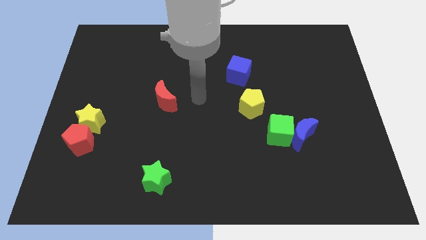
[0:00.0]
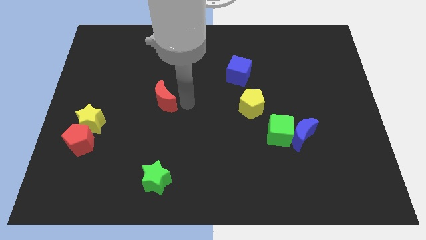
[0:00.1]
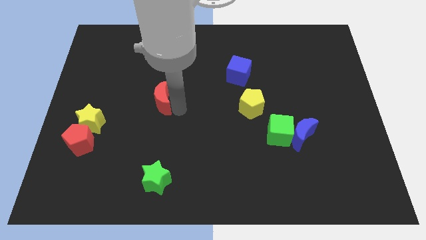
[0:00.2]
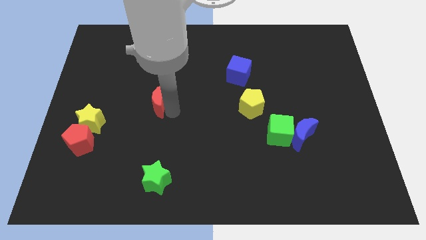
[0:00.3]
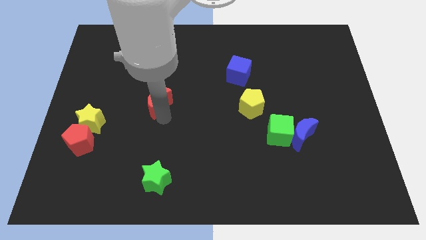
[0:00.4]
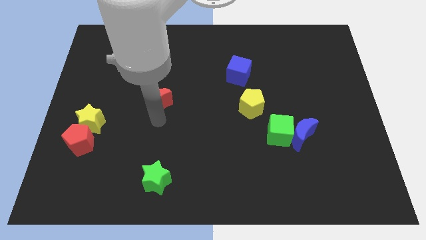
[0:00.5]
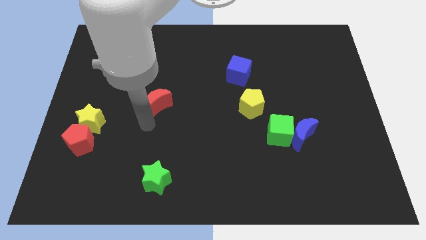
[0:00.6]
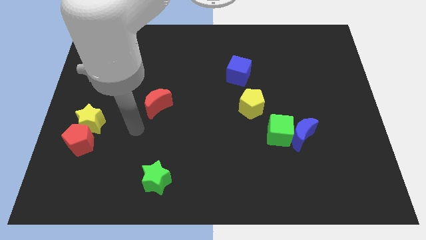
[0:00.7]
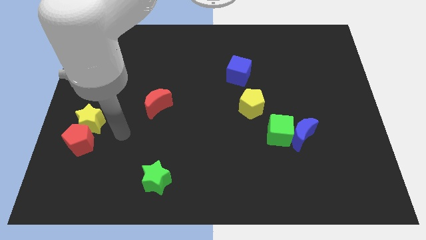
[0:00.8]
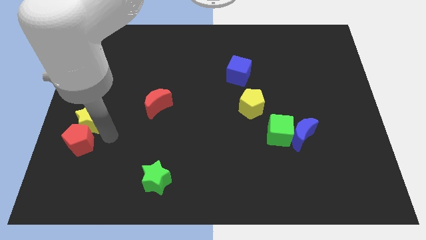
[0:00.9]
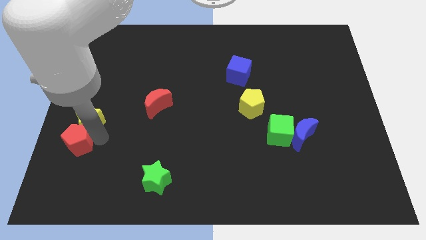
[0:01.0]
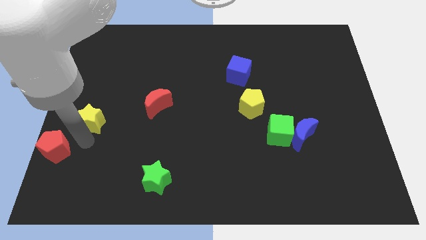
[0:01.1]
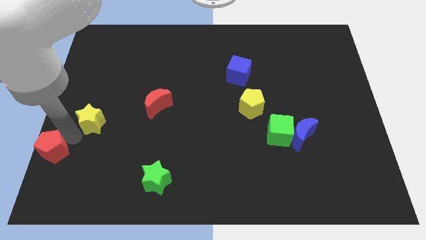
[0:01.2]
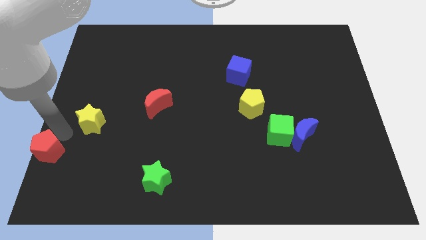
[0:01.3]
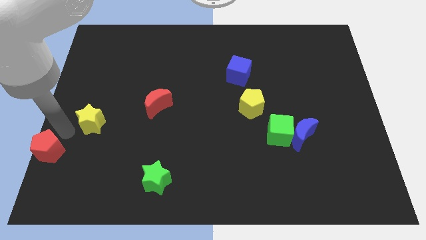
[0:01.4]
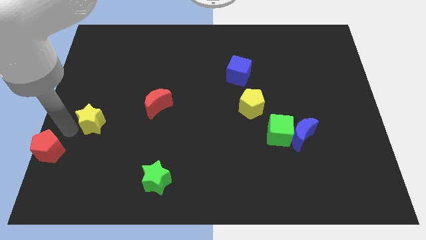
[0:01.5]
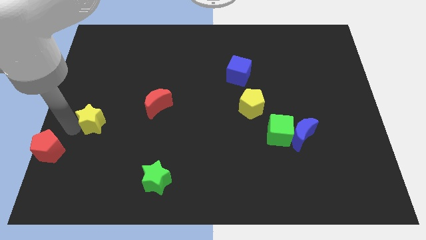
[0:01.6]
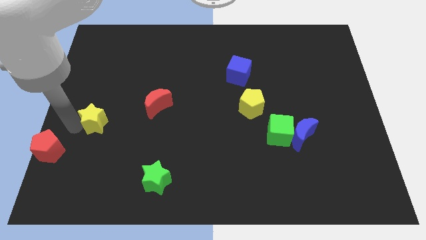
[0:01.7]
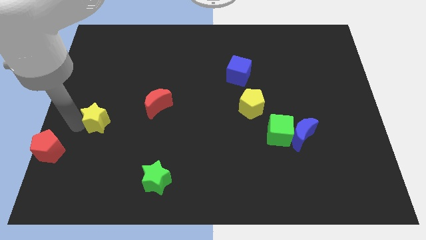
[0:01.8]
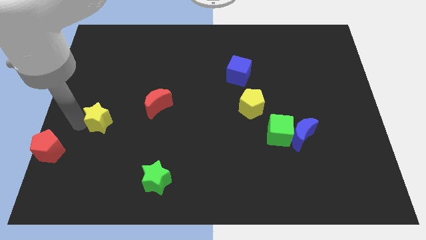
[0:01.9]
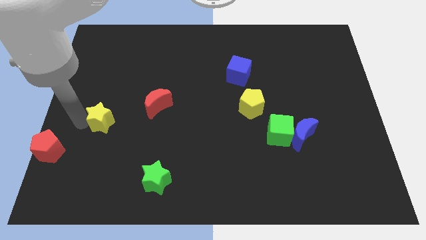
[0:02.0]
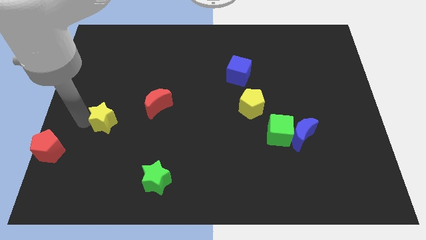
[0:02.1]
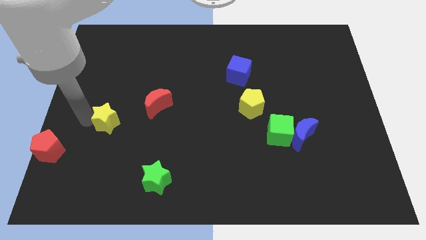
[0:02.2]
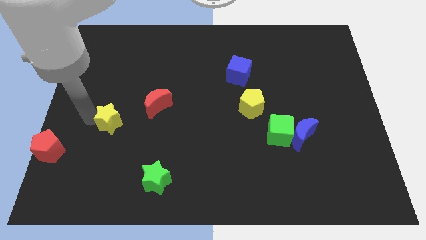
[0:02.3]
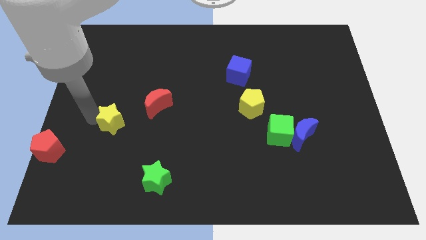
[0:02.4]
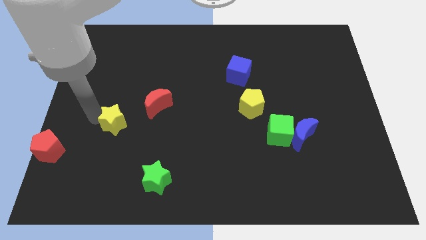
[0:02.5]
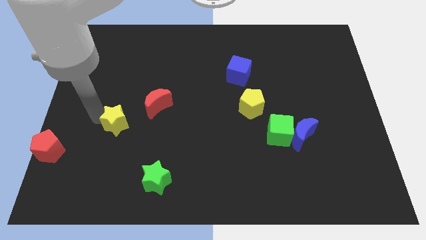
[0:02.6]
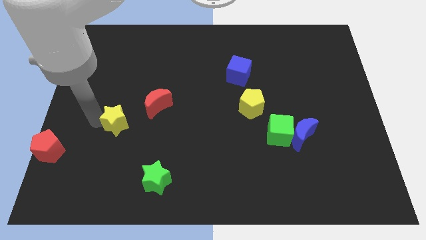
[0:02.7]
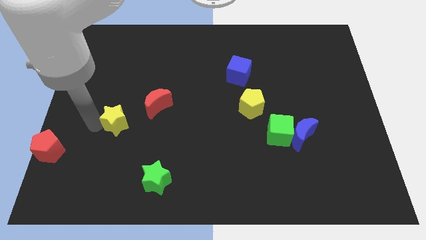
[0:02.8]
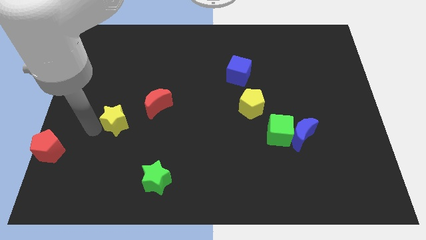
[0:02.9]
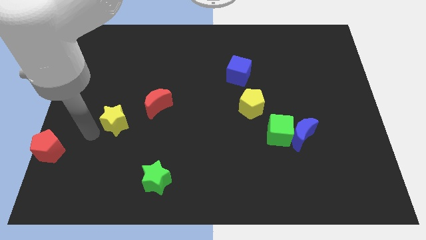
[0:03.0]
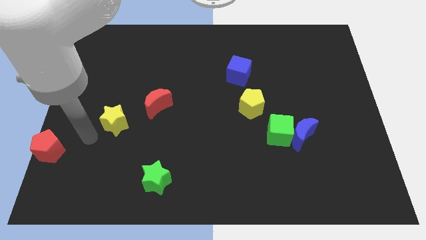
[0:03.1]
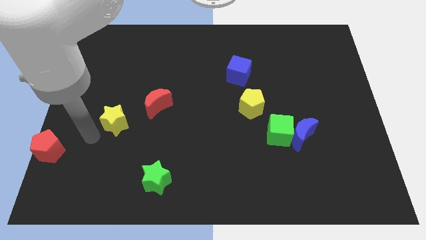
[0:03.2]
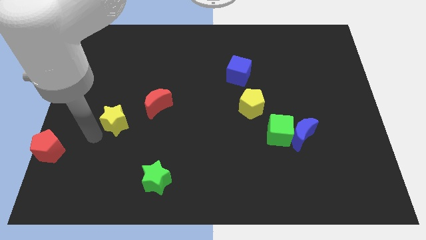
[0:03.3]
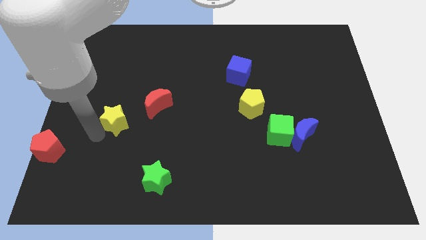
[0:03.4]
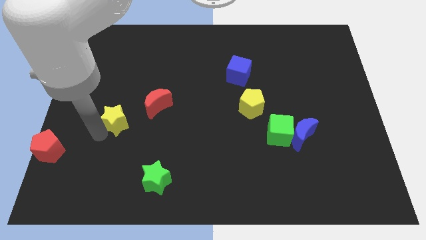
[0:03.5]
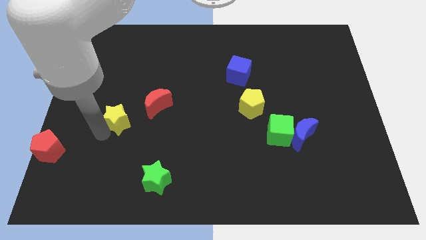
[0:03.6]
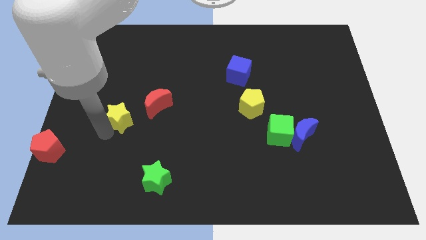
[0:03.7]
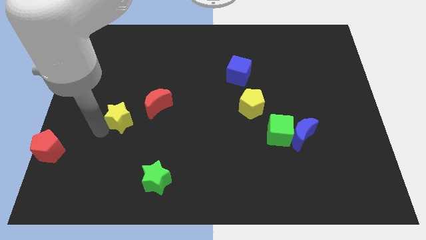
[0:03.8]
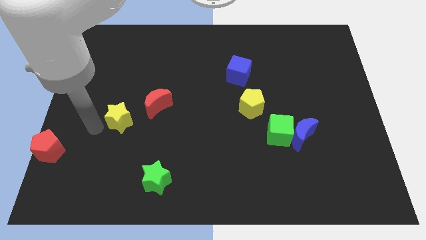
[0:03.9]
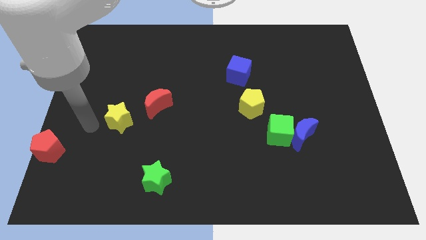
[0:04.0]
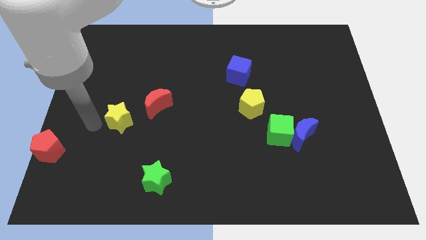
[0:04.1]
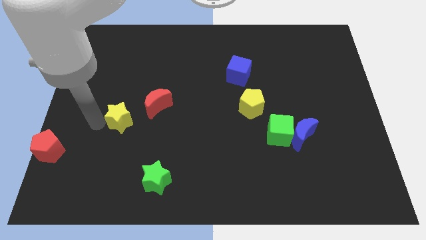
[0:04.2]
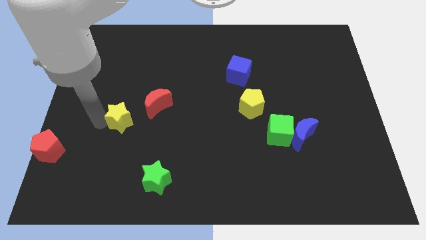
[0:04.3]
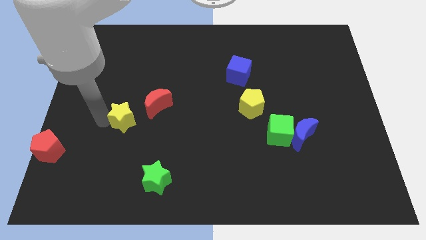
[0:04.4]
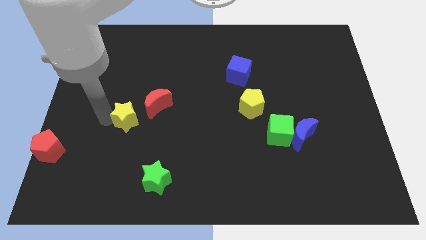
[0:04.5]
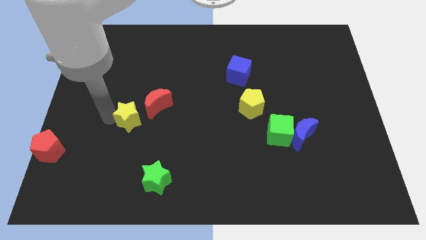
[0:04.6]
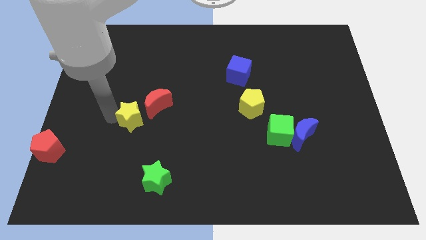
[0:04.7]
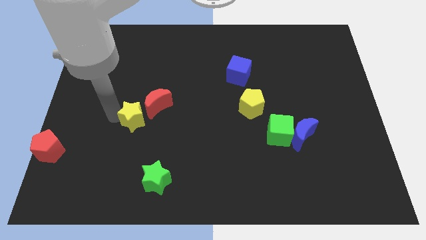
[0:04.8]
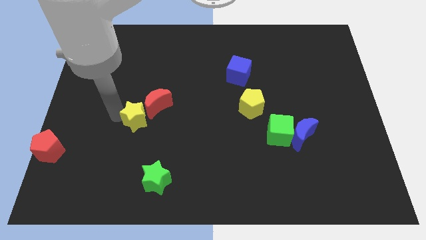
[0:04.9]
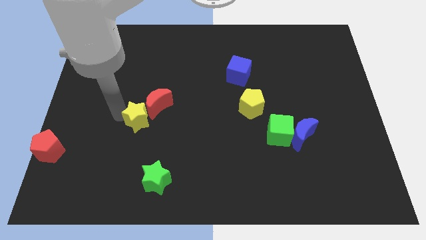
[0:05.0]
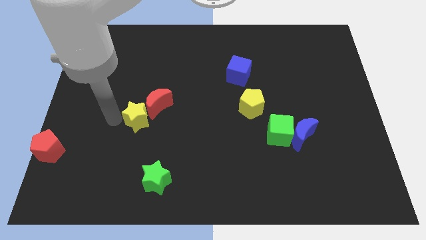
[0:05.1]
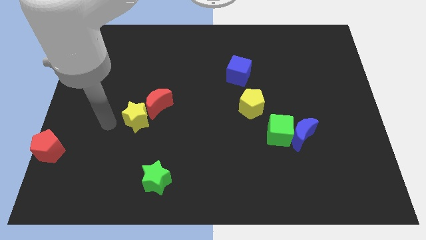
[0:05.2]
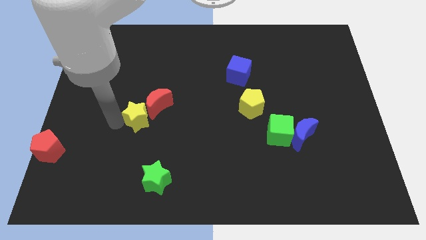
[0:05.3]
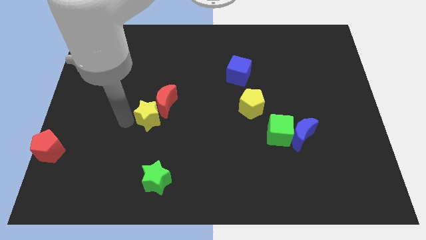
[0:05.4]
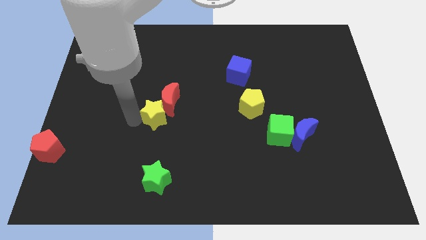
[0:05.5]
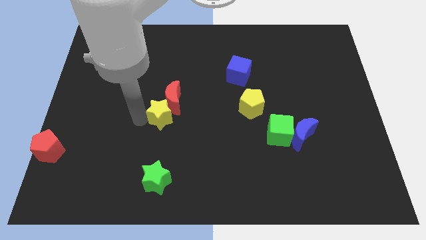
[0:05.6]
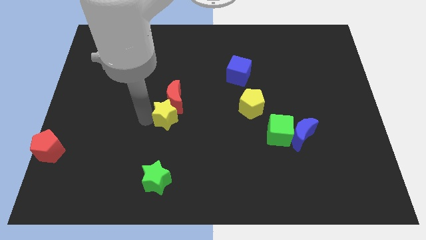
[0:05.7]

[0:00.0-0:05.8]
put the yellow star to the center

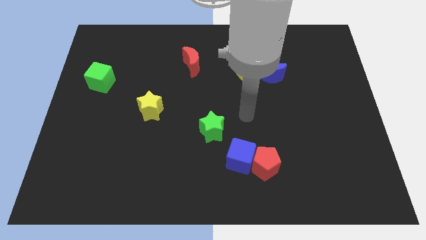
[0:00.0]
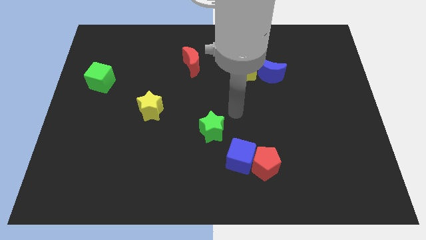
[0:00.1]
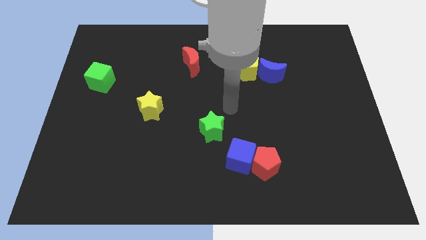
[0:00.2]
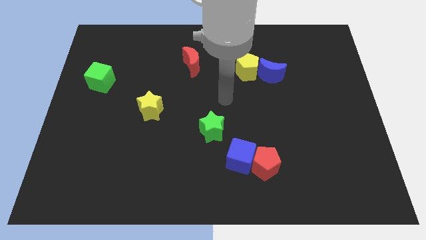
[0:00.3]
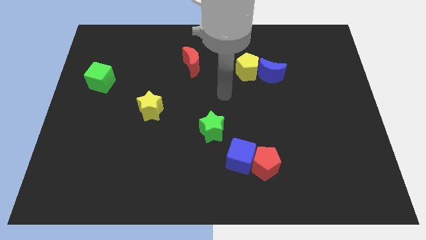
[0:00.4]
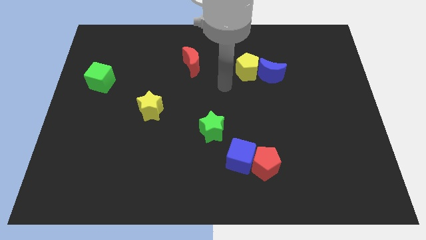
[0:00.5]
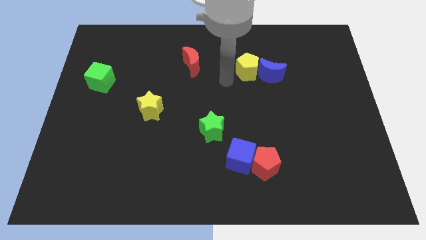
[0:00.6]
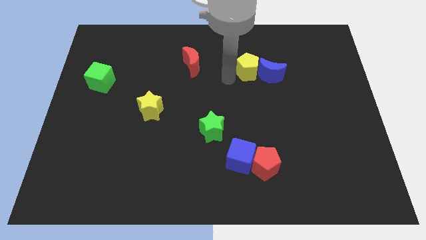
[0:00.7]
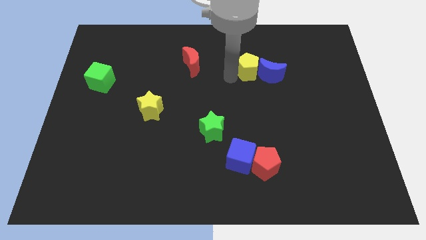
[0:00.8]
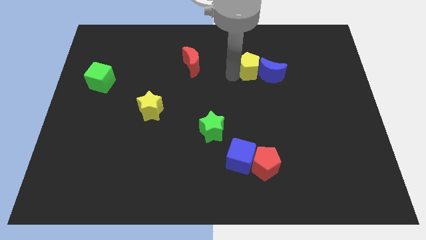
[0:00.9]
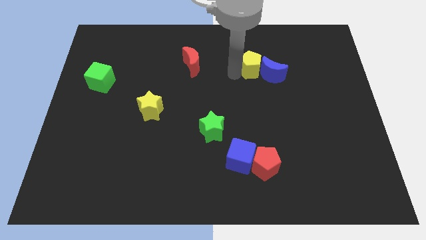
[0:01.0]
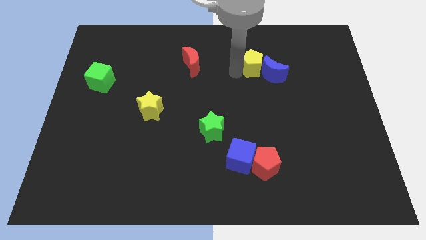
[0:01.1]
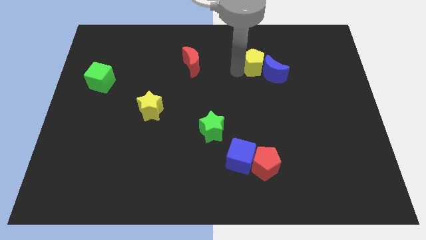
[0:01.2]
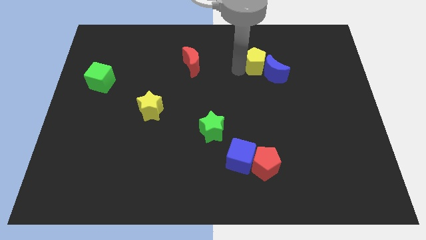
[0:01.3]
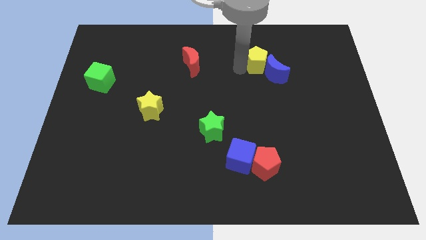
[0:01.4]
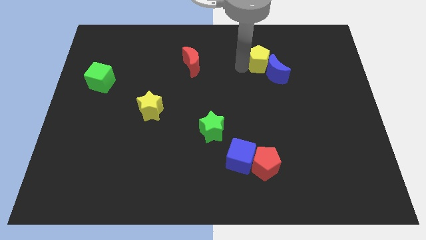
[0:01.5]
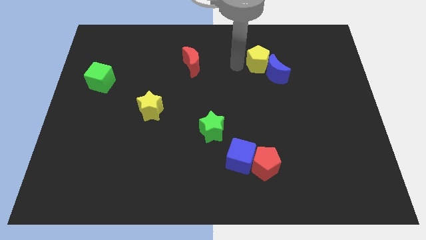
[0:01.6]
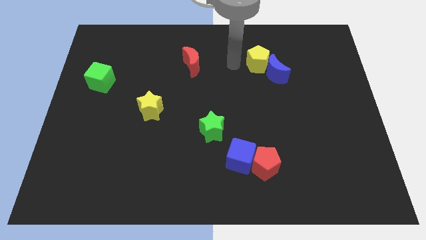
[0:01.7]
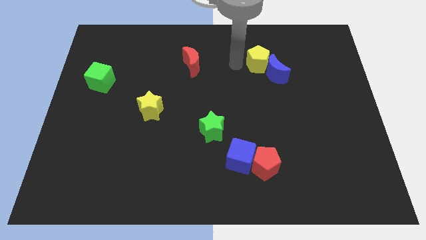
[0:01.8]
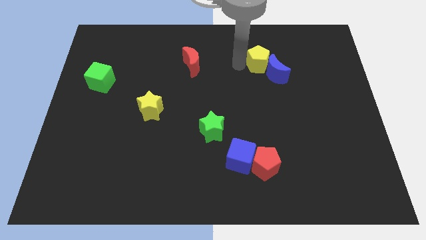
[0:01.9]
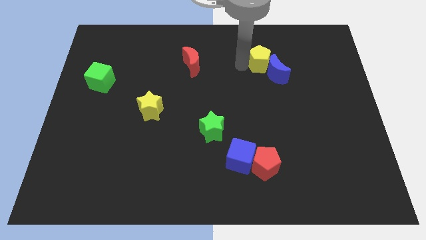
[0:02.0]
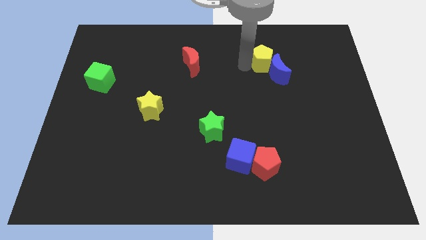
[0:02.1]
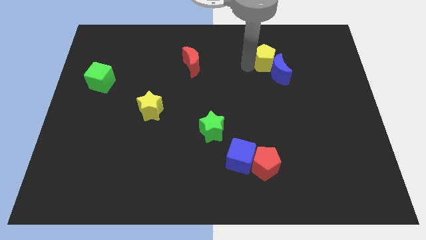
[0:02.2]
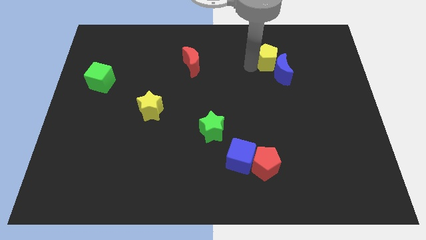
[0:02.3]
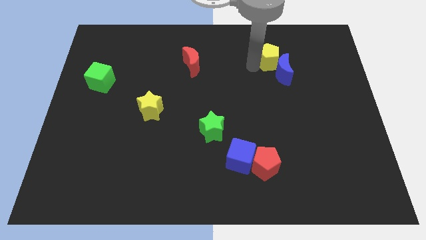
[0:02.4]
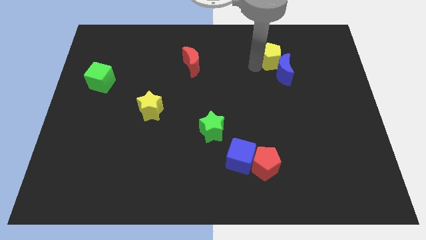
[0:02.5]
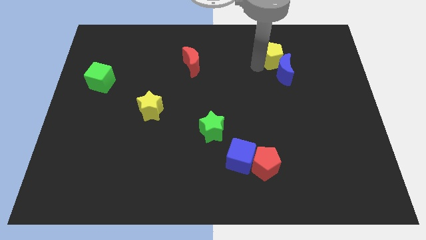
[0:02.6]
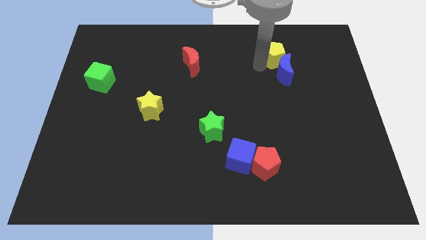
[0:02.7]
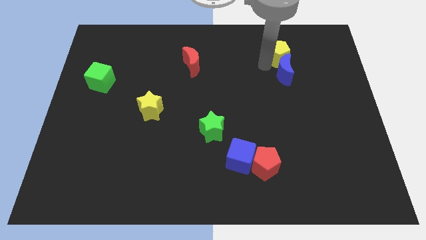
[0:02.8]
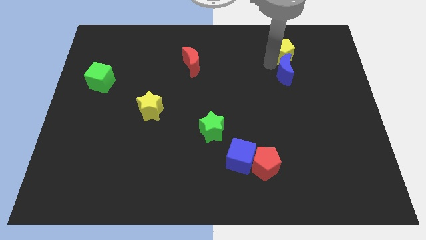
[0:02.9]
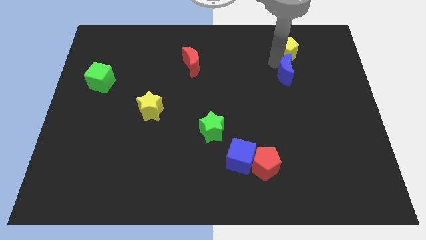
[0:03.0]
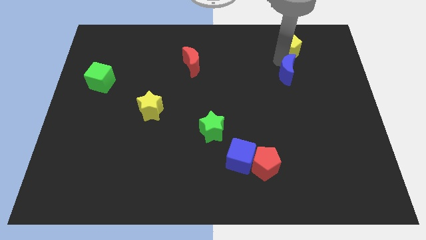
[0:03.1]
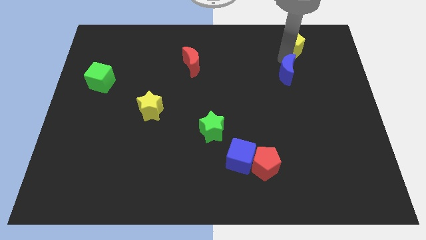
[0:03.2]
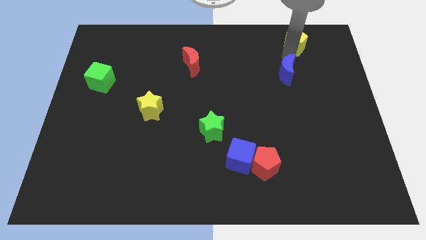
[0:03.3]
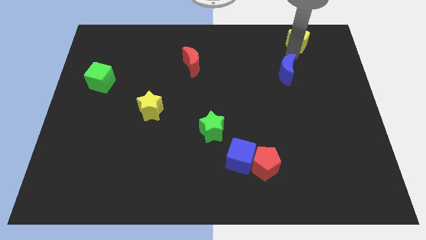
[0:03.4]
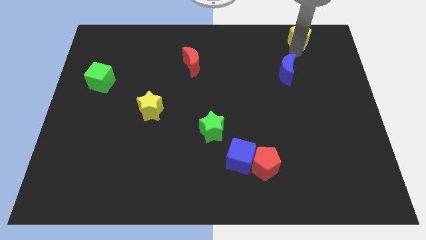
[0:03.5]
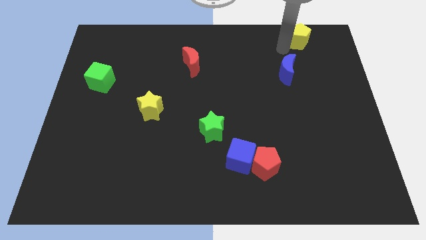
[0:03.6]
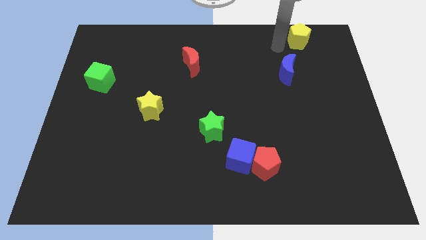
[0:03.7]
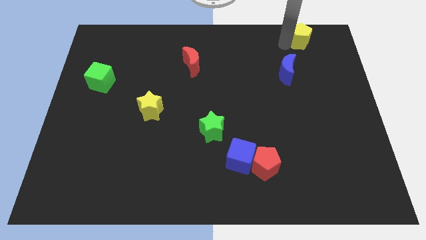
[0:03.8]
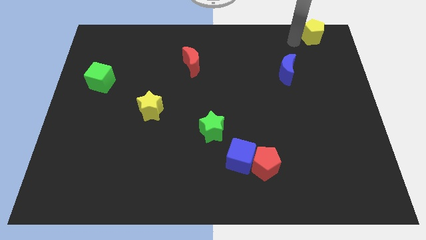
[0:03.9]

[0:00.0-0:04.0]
move the yellow pentagon to the upper right corner
